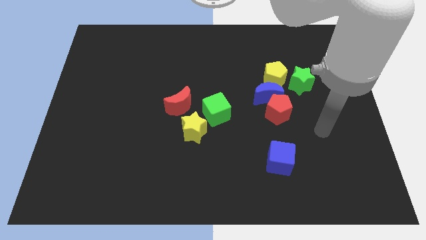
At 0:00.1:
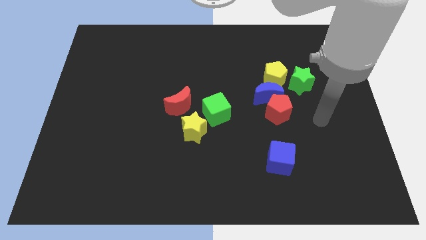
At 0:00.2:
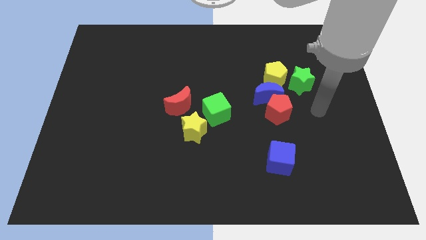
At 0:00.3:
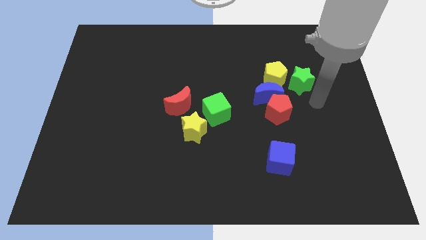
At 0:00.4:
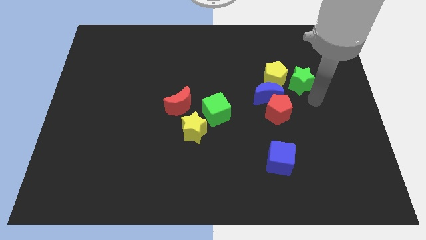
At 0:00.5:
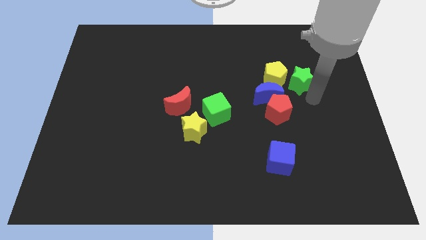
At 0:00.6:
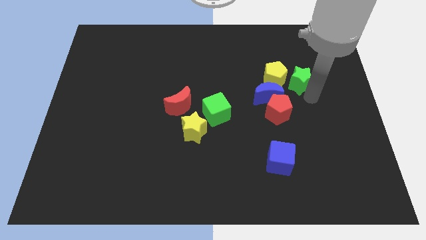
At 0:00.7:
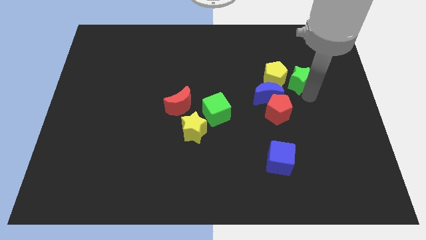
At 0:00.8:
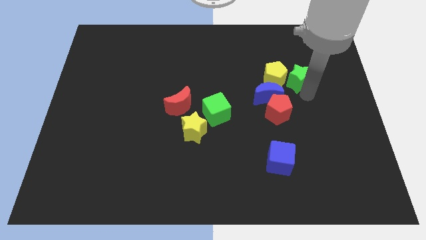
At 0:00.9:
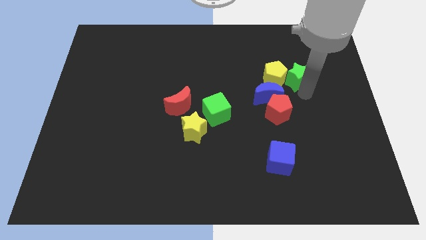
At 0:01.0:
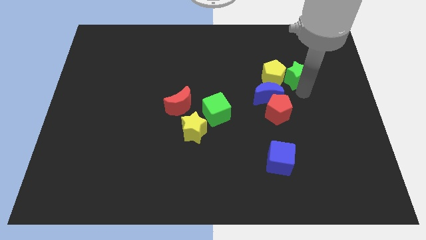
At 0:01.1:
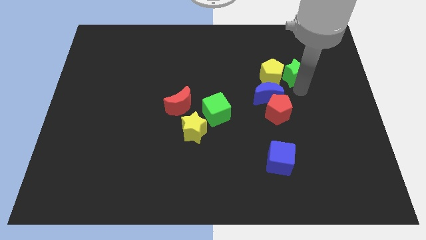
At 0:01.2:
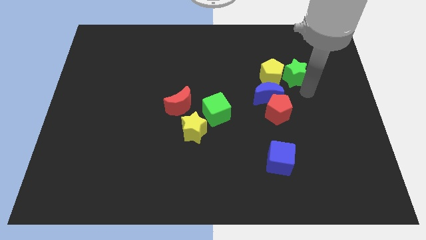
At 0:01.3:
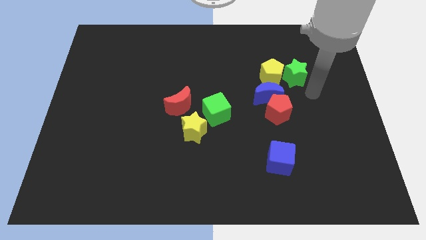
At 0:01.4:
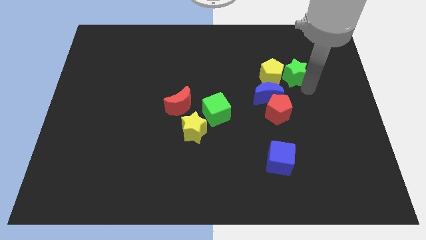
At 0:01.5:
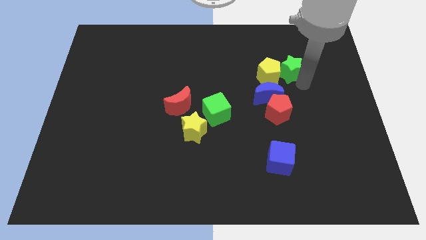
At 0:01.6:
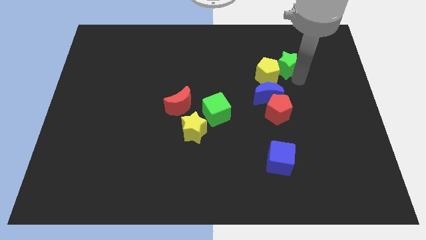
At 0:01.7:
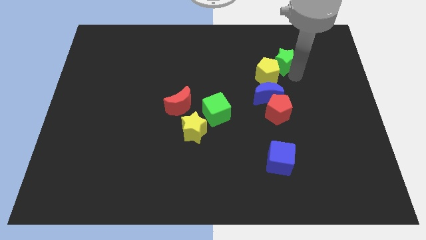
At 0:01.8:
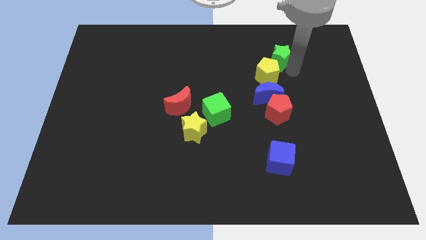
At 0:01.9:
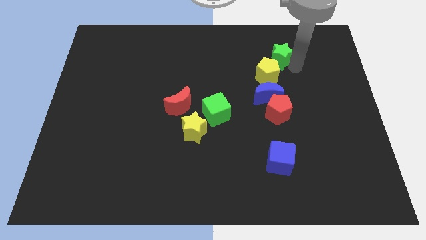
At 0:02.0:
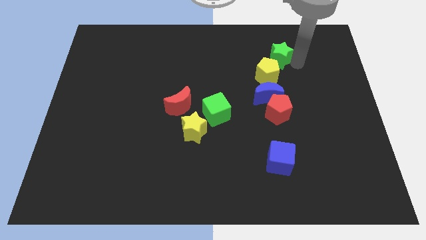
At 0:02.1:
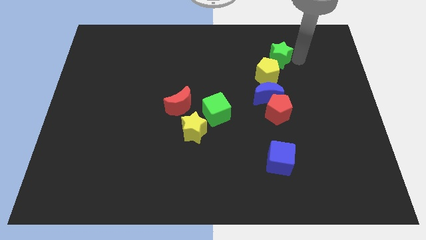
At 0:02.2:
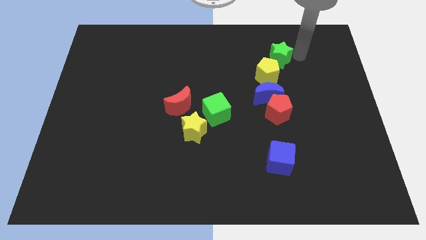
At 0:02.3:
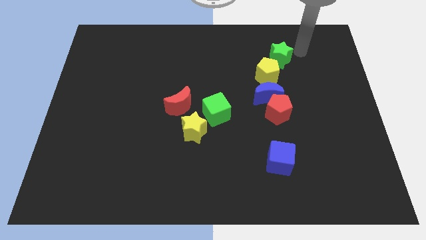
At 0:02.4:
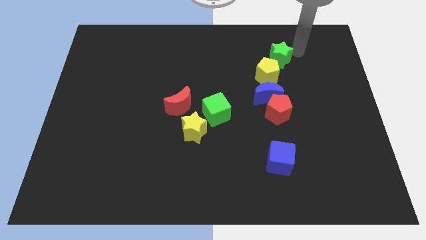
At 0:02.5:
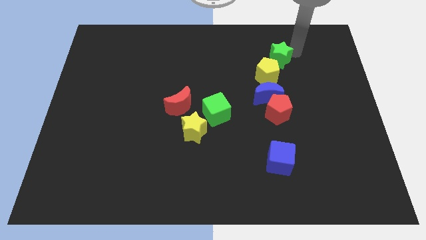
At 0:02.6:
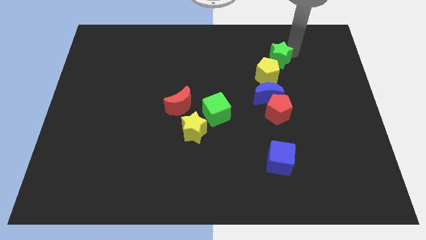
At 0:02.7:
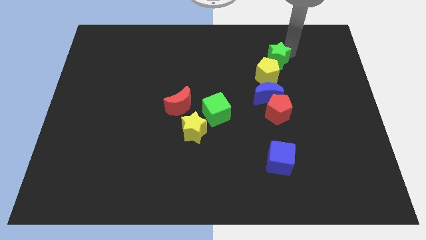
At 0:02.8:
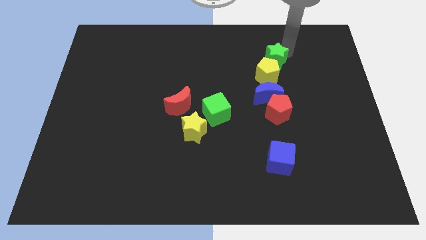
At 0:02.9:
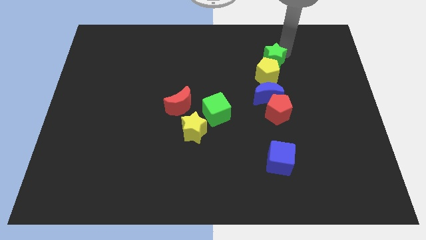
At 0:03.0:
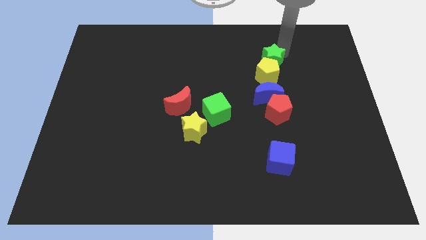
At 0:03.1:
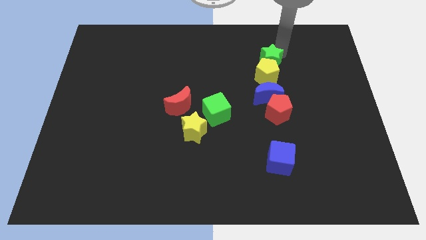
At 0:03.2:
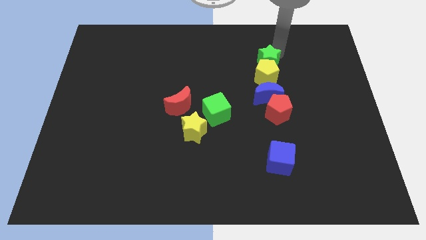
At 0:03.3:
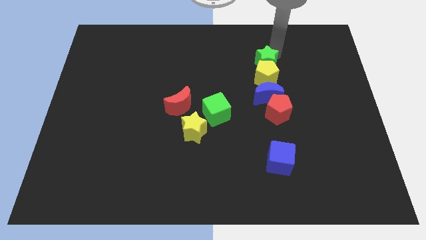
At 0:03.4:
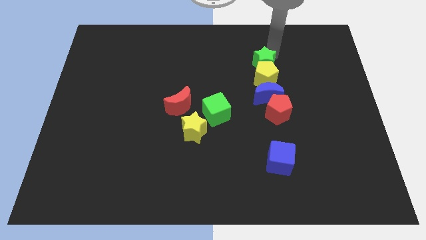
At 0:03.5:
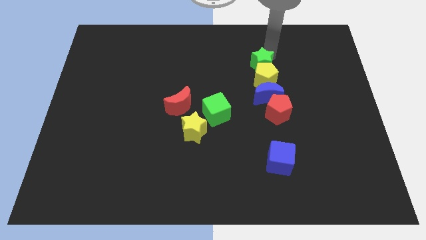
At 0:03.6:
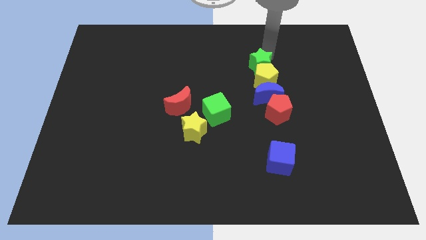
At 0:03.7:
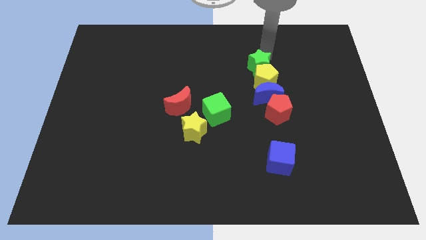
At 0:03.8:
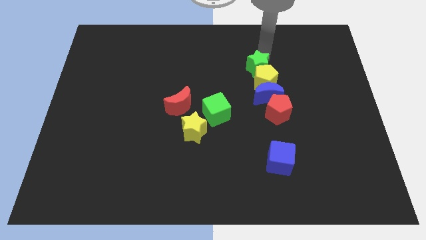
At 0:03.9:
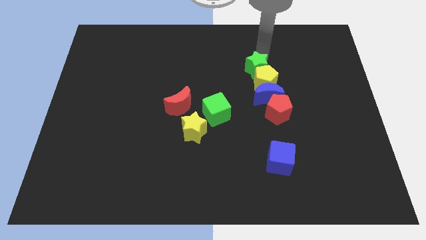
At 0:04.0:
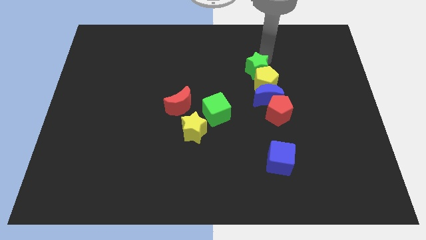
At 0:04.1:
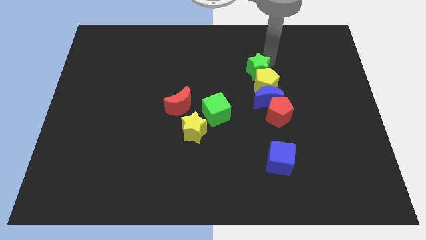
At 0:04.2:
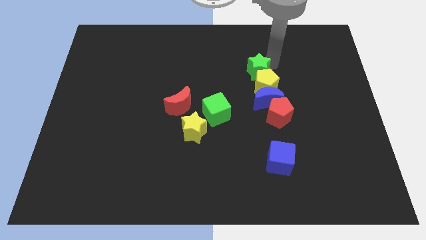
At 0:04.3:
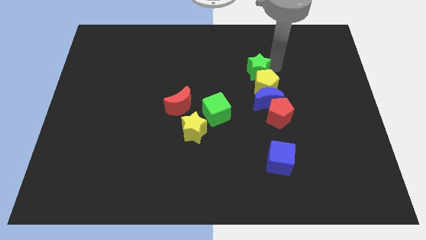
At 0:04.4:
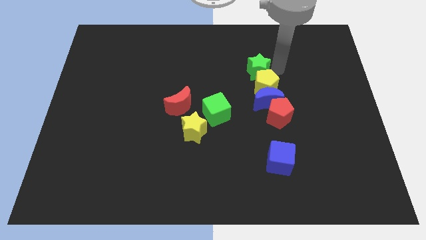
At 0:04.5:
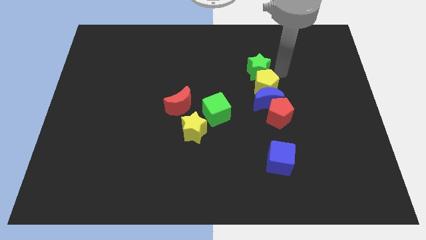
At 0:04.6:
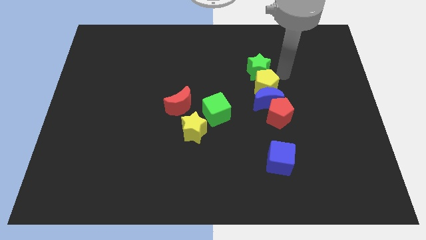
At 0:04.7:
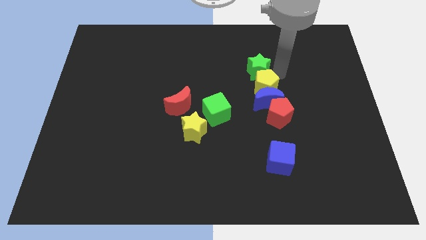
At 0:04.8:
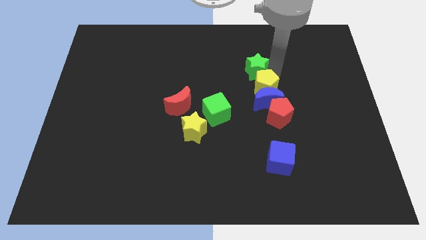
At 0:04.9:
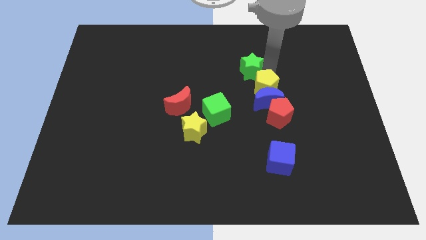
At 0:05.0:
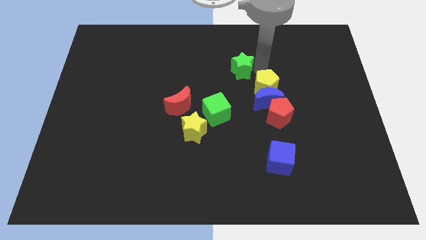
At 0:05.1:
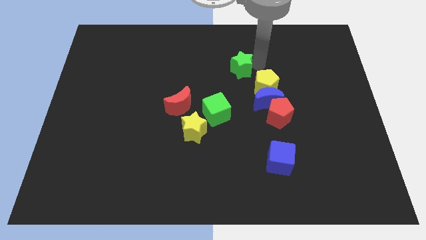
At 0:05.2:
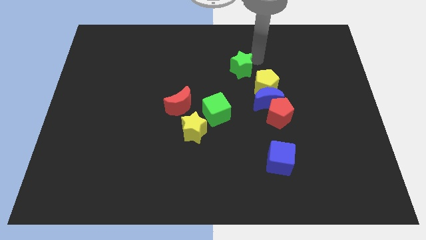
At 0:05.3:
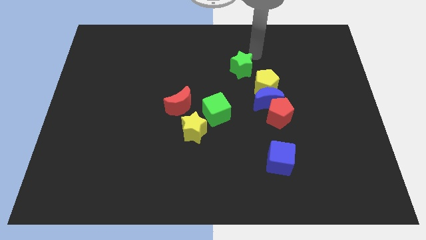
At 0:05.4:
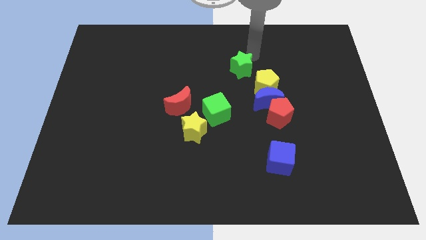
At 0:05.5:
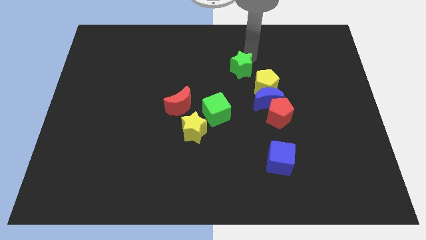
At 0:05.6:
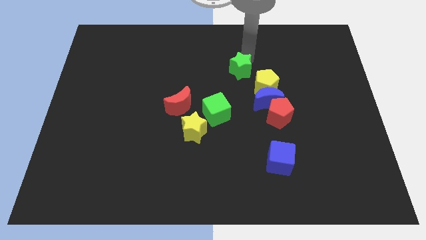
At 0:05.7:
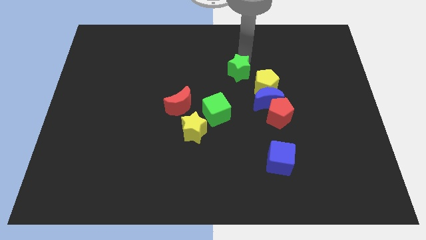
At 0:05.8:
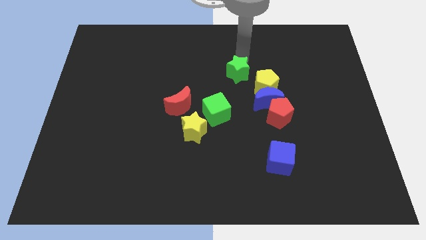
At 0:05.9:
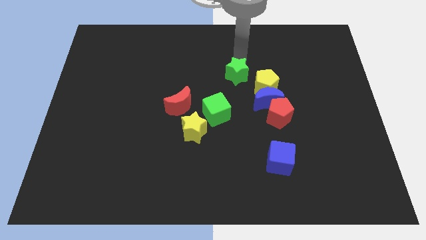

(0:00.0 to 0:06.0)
put the green star left of the yellow pentagon

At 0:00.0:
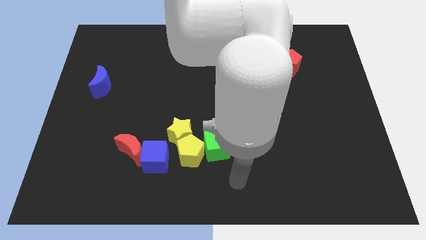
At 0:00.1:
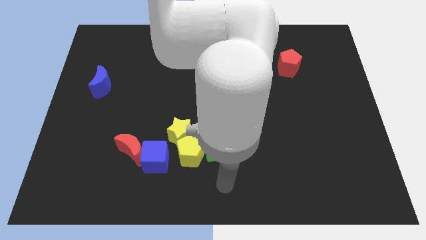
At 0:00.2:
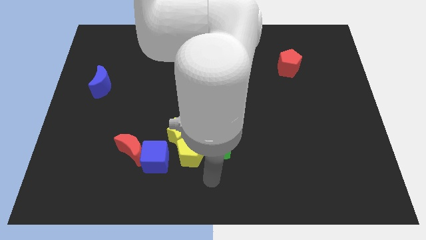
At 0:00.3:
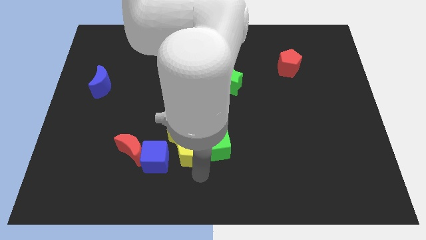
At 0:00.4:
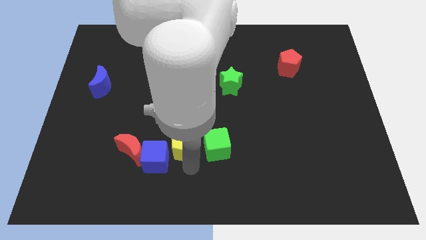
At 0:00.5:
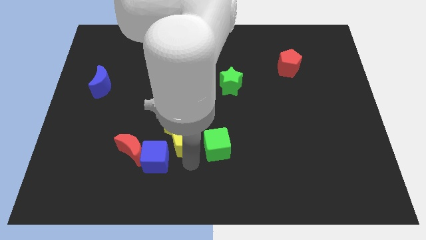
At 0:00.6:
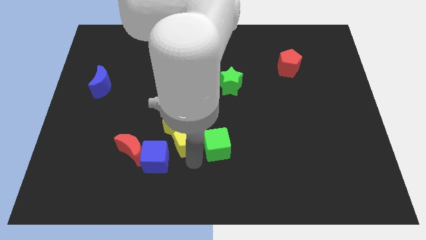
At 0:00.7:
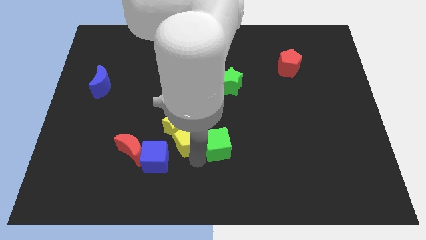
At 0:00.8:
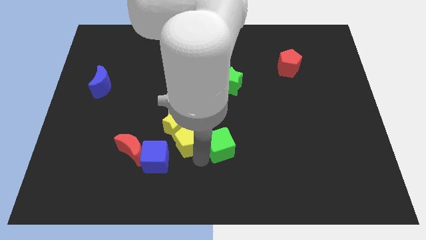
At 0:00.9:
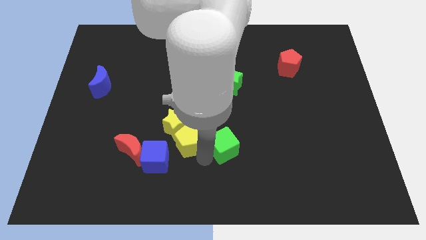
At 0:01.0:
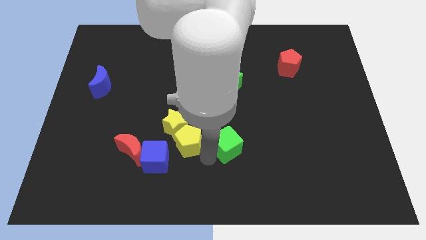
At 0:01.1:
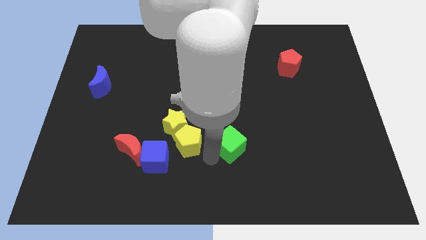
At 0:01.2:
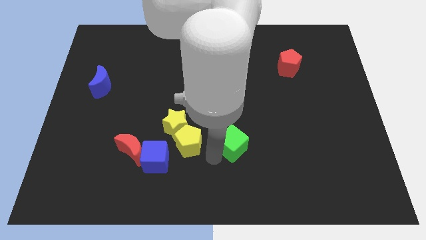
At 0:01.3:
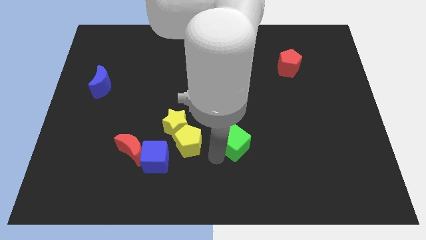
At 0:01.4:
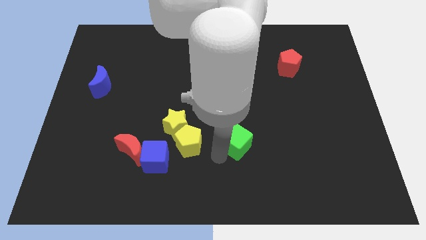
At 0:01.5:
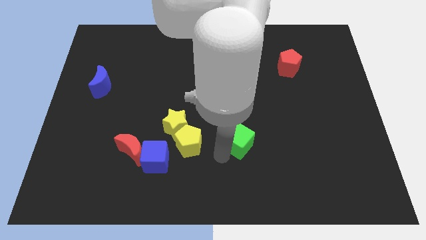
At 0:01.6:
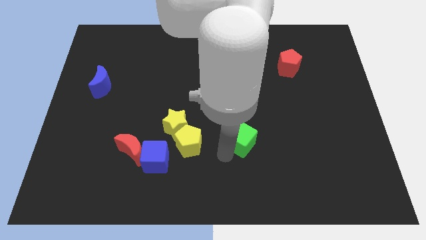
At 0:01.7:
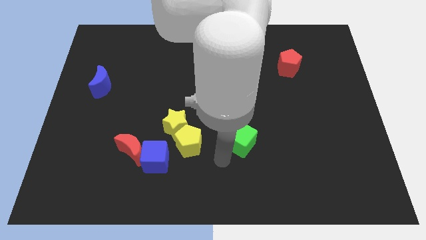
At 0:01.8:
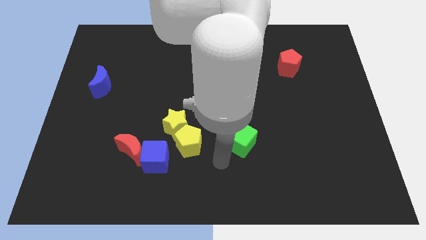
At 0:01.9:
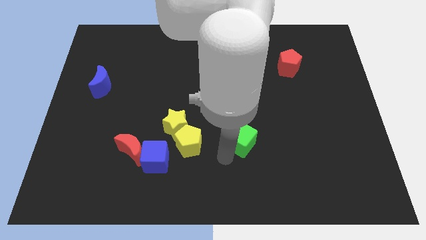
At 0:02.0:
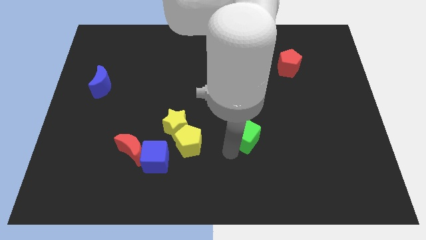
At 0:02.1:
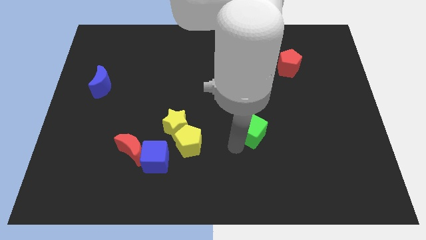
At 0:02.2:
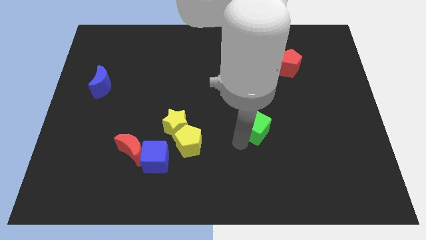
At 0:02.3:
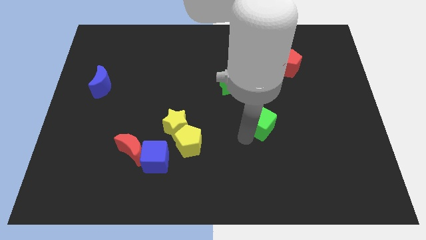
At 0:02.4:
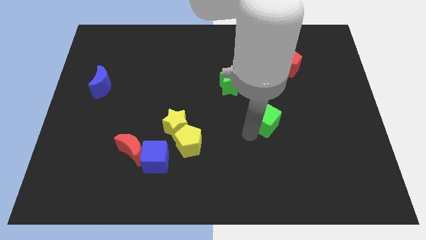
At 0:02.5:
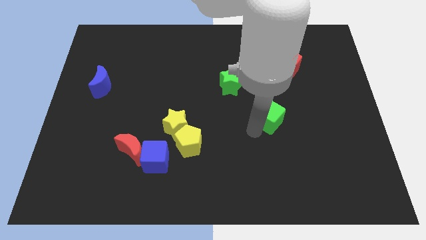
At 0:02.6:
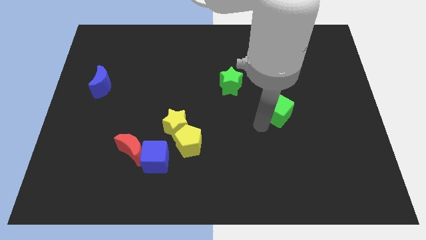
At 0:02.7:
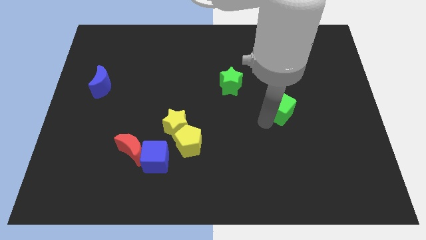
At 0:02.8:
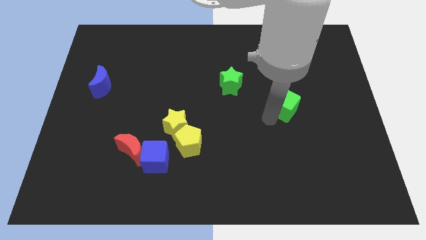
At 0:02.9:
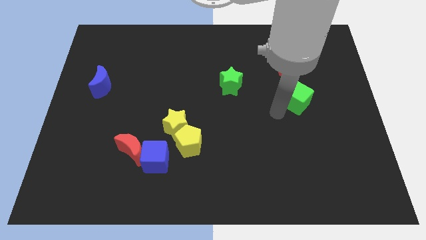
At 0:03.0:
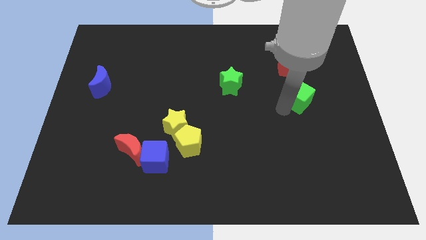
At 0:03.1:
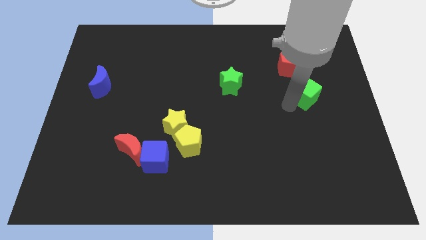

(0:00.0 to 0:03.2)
push the green cube diagonally down and to the right of the red pentagon
